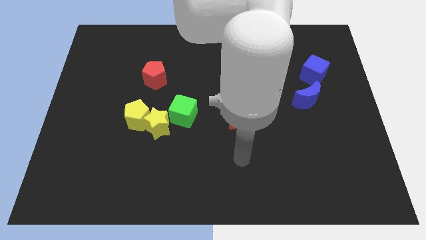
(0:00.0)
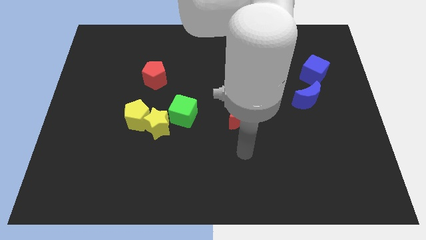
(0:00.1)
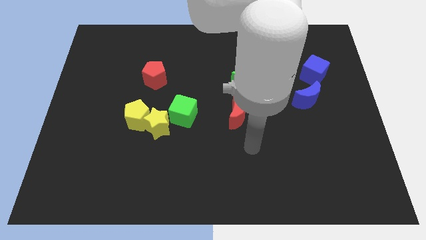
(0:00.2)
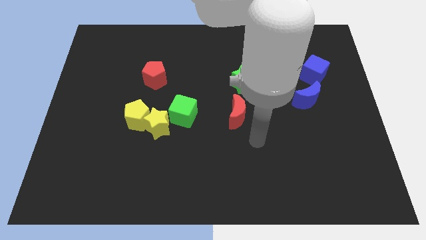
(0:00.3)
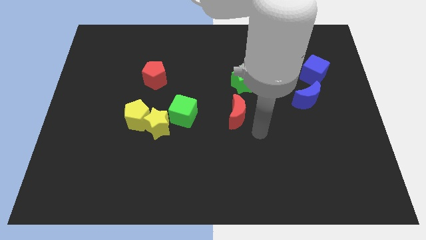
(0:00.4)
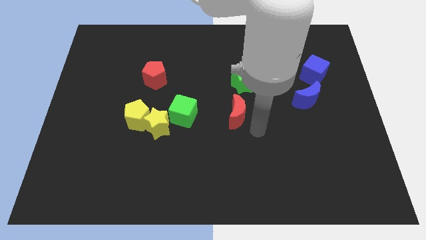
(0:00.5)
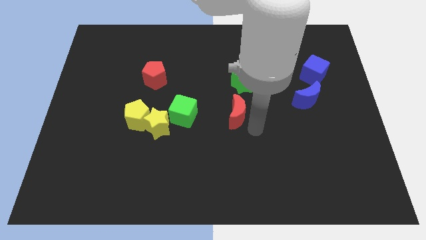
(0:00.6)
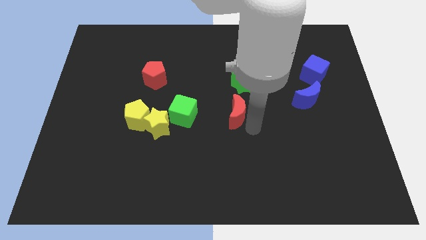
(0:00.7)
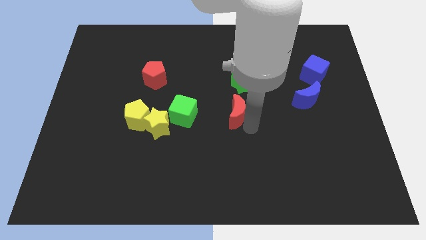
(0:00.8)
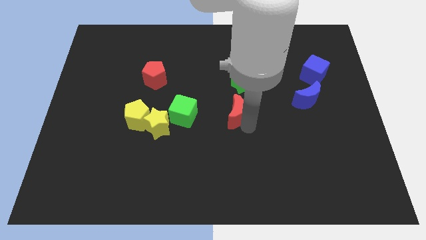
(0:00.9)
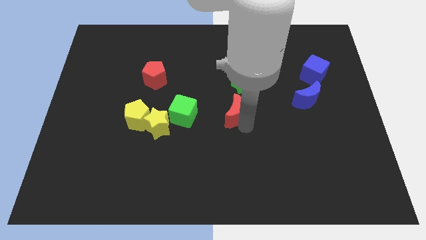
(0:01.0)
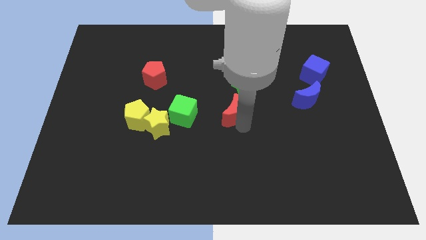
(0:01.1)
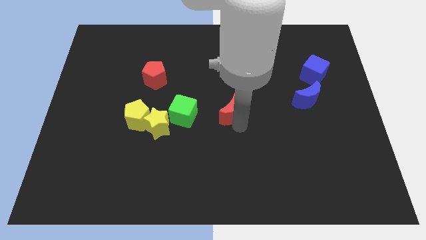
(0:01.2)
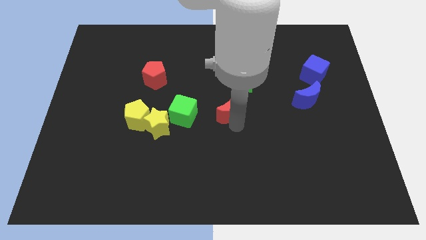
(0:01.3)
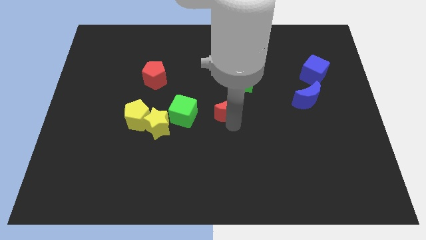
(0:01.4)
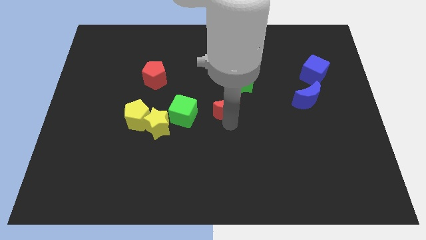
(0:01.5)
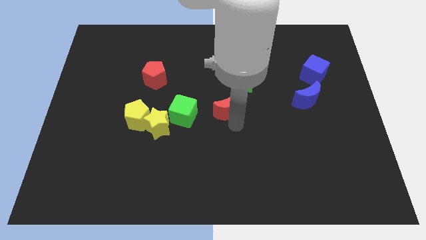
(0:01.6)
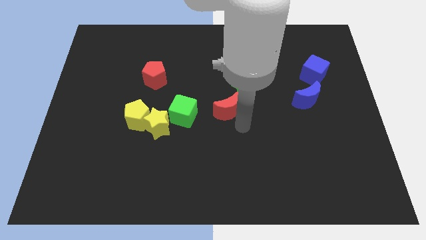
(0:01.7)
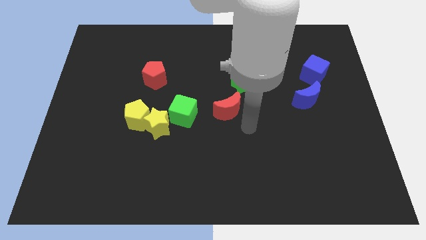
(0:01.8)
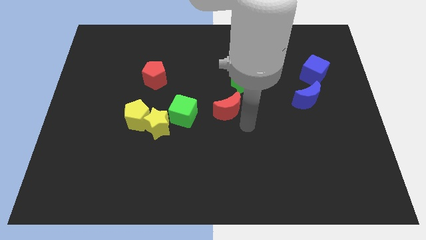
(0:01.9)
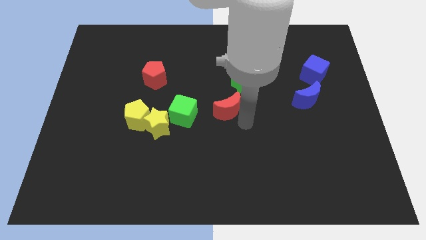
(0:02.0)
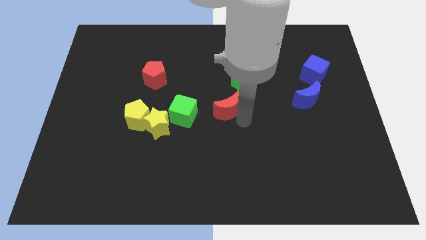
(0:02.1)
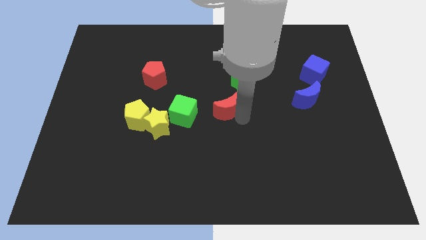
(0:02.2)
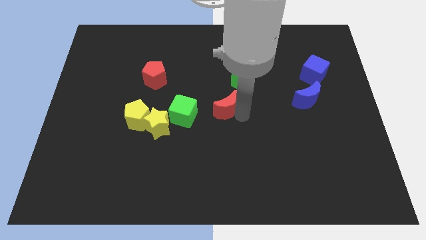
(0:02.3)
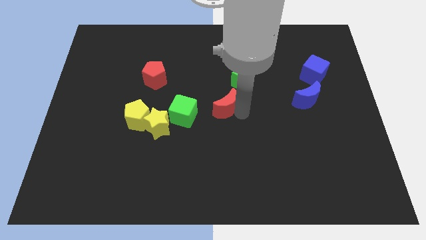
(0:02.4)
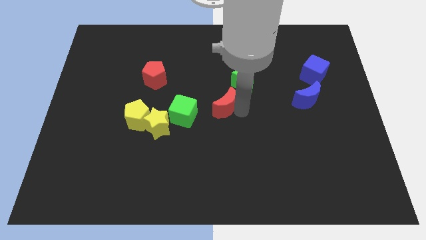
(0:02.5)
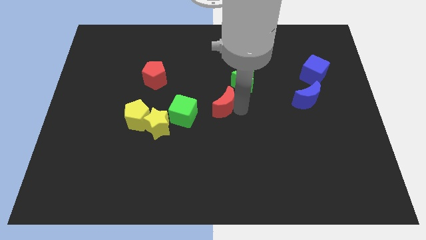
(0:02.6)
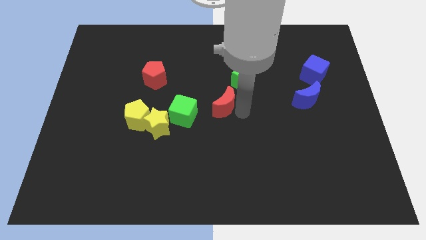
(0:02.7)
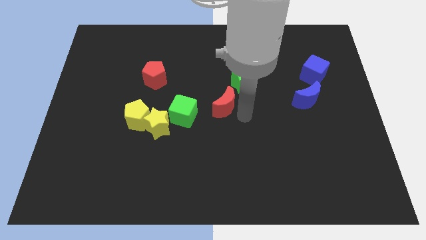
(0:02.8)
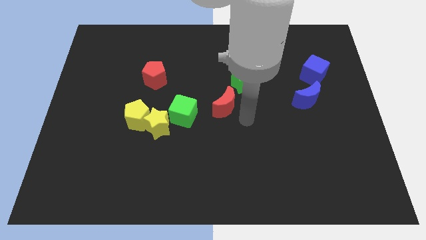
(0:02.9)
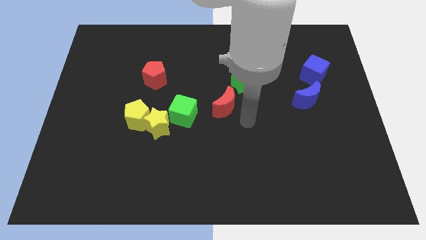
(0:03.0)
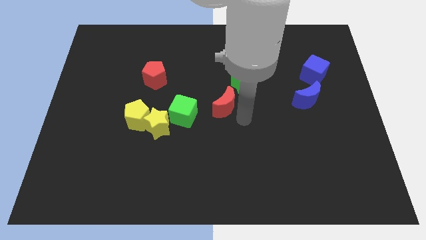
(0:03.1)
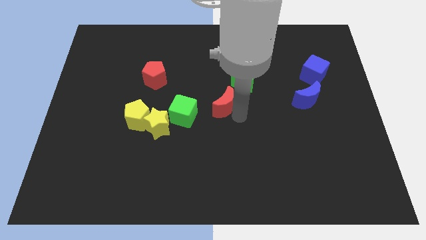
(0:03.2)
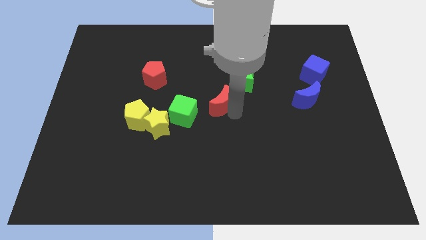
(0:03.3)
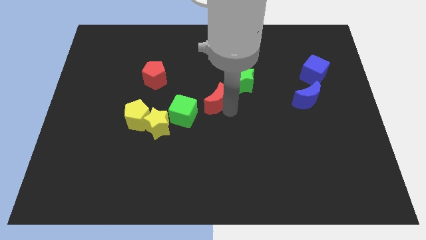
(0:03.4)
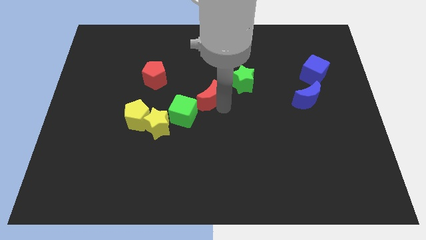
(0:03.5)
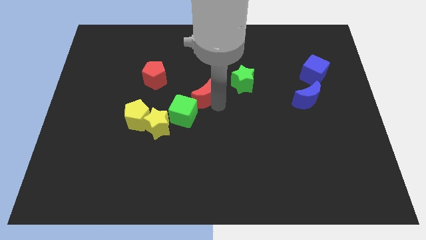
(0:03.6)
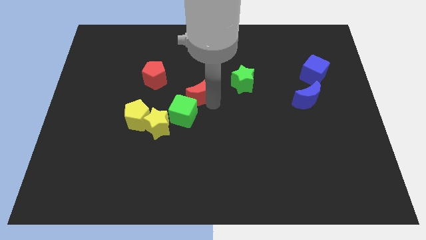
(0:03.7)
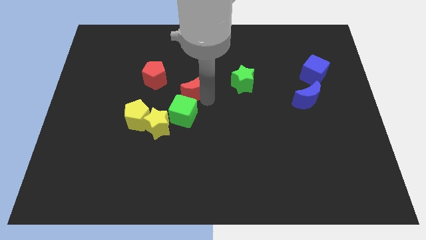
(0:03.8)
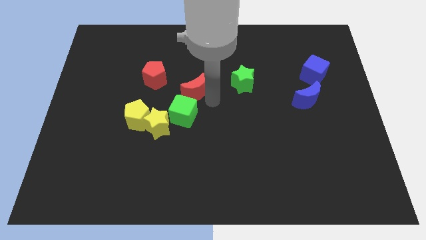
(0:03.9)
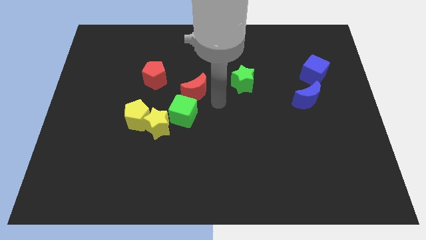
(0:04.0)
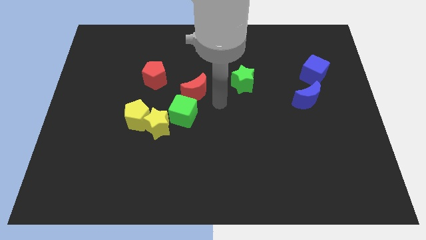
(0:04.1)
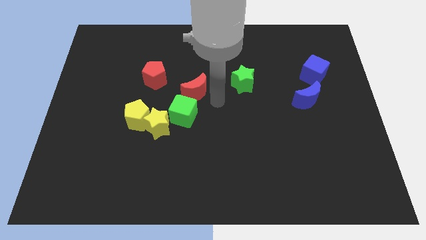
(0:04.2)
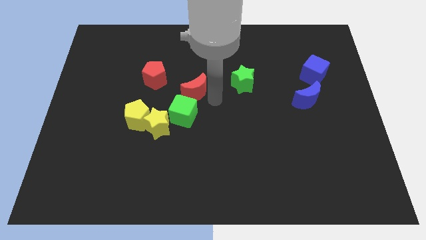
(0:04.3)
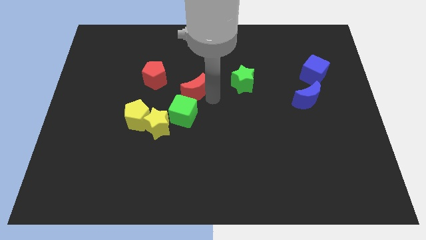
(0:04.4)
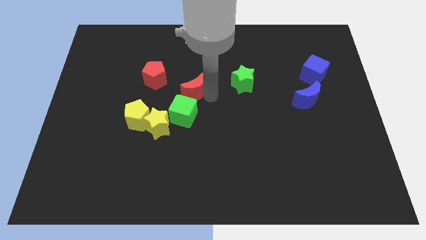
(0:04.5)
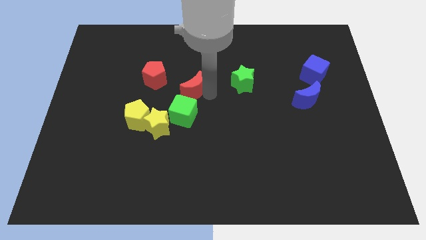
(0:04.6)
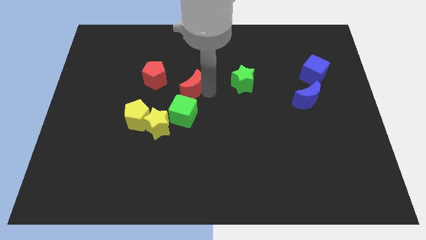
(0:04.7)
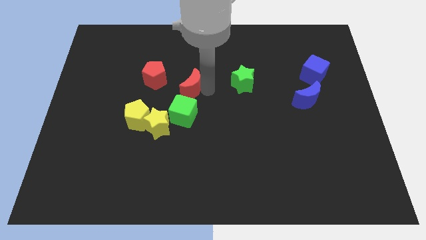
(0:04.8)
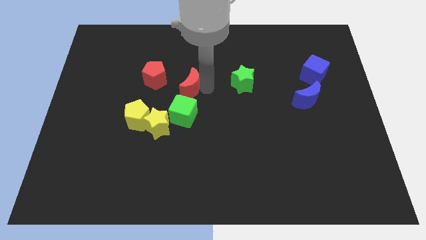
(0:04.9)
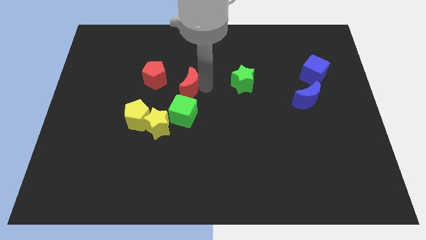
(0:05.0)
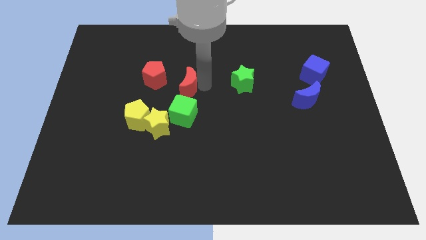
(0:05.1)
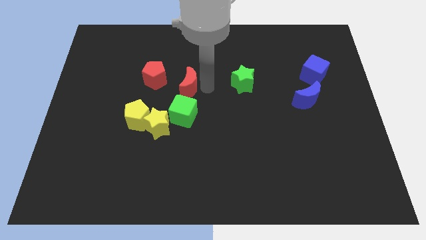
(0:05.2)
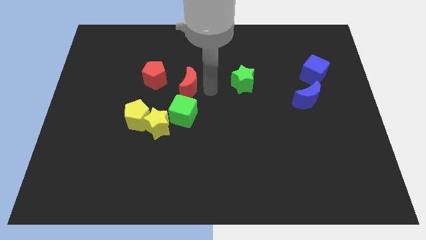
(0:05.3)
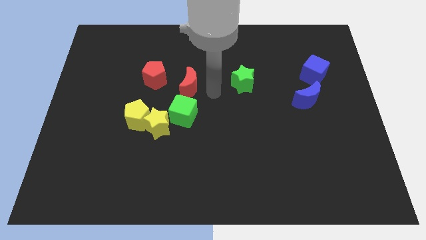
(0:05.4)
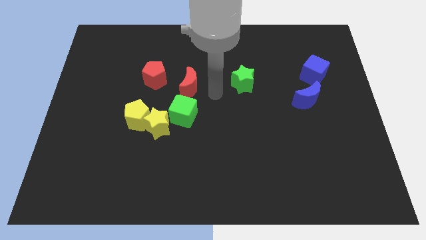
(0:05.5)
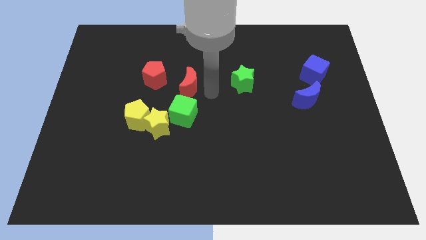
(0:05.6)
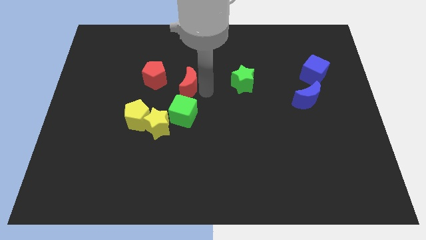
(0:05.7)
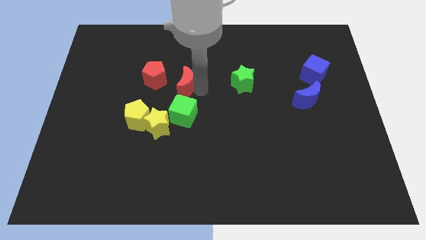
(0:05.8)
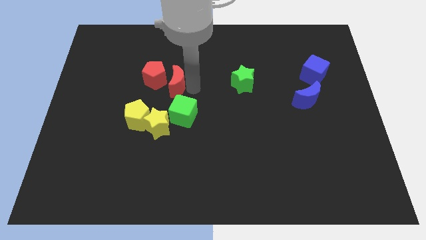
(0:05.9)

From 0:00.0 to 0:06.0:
move the red moon to the red pentagon

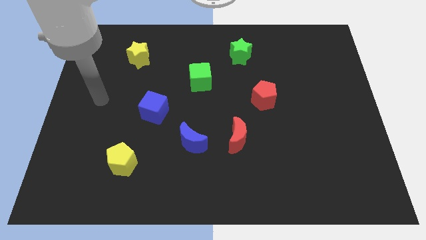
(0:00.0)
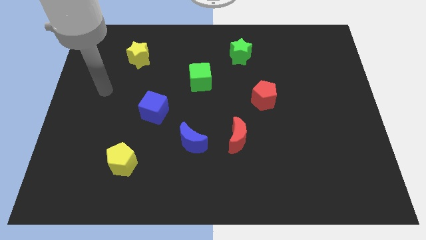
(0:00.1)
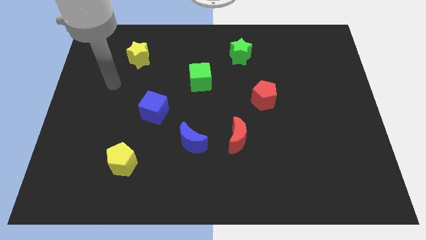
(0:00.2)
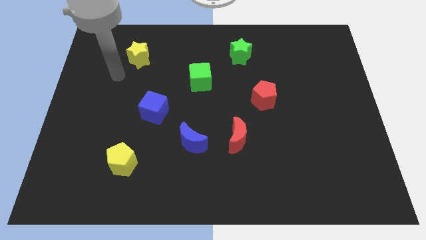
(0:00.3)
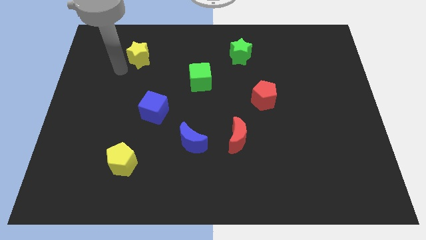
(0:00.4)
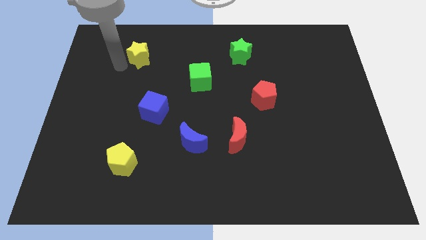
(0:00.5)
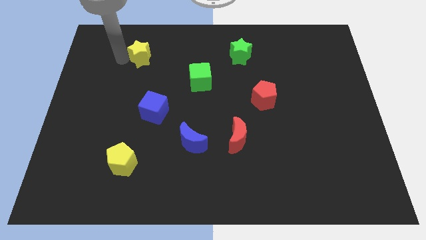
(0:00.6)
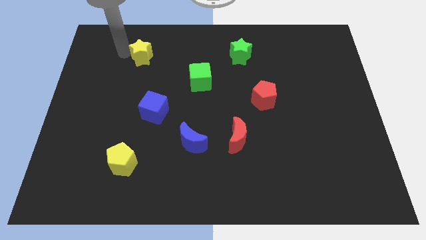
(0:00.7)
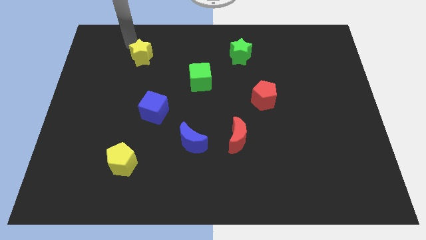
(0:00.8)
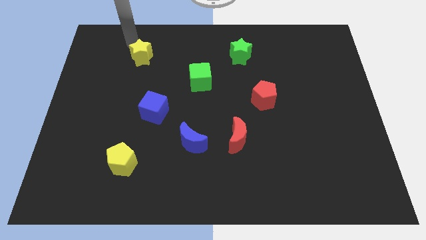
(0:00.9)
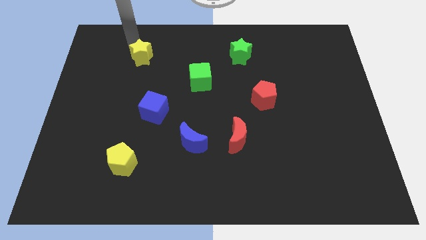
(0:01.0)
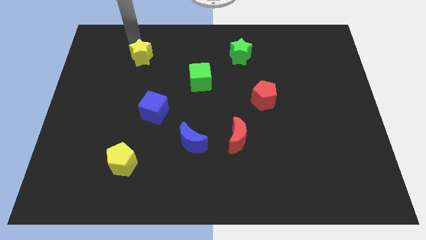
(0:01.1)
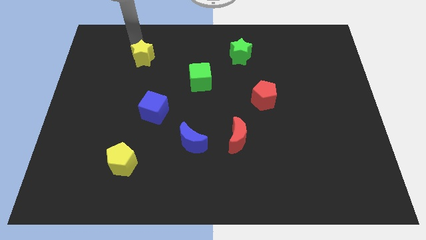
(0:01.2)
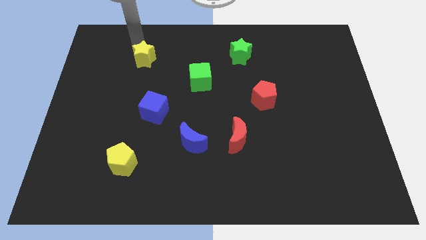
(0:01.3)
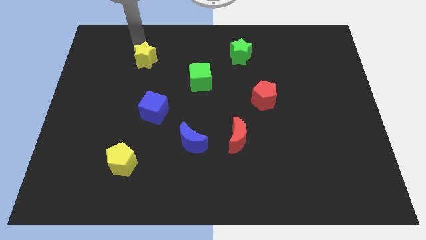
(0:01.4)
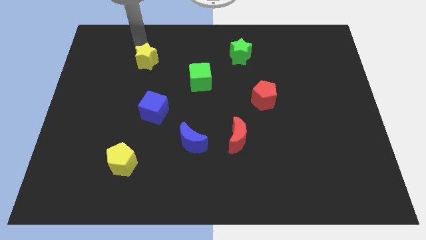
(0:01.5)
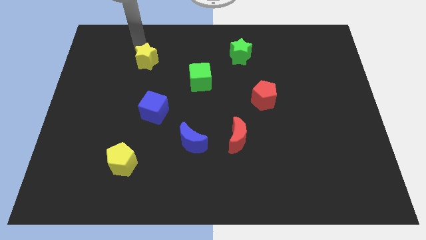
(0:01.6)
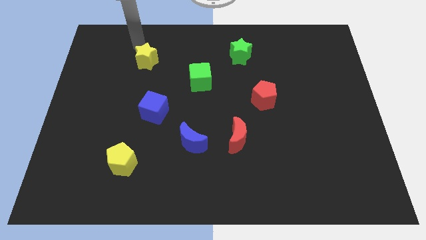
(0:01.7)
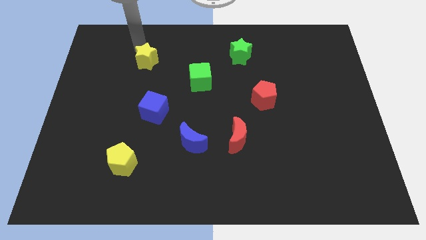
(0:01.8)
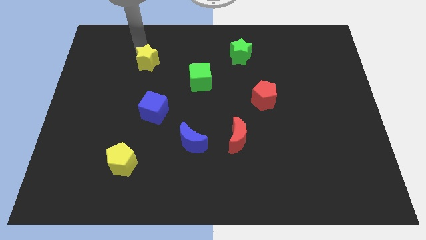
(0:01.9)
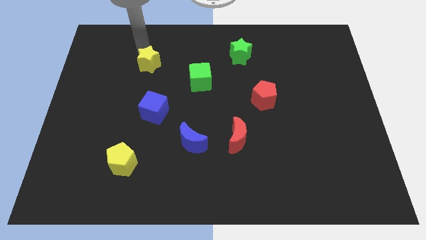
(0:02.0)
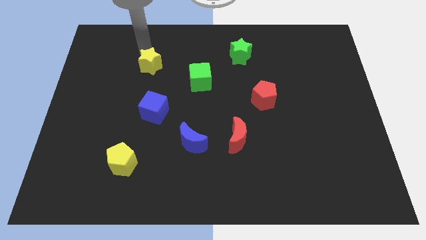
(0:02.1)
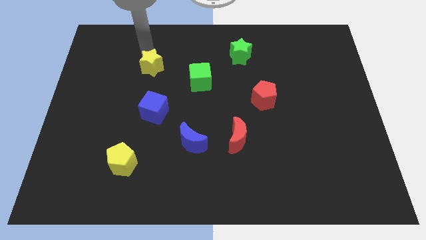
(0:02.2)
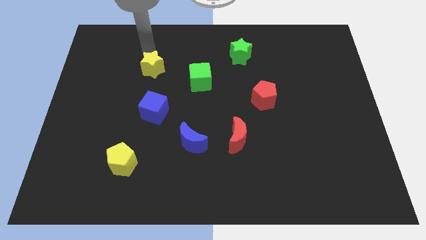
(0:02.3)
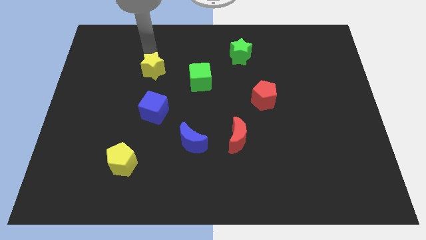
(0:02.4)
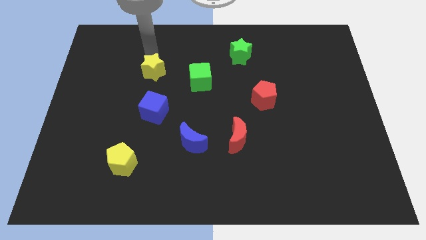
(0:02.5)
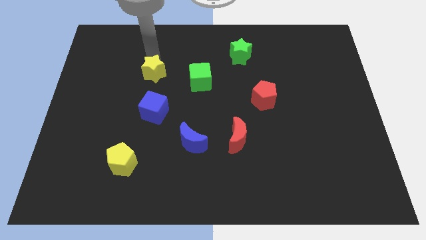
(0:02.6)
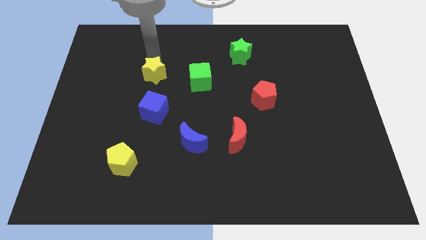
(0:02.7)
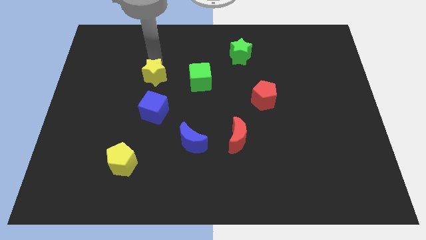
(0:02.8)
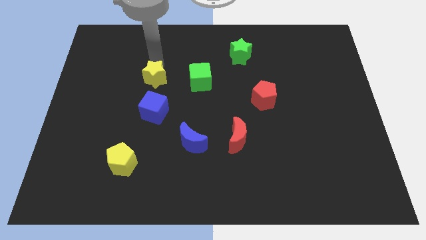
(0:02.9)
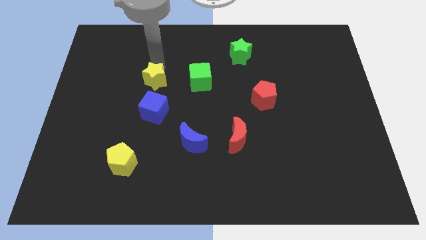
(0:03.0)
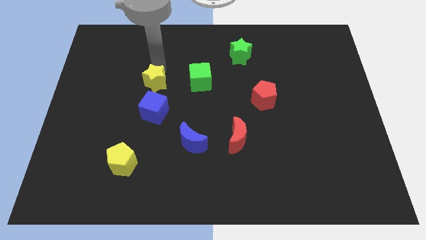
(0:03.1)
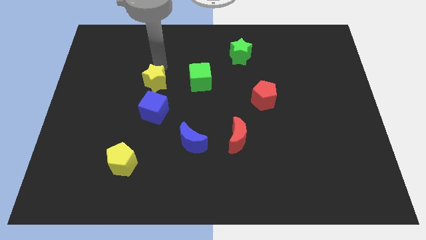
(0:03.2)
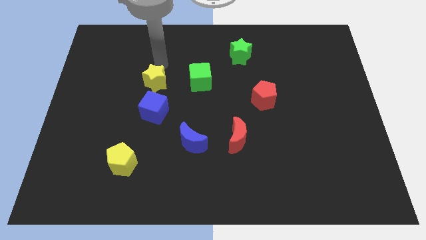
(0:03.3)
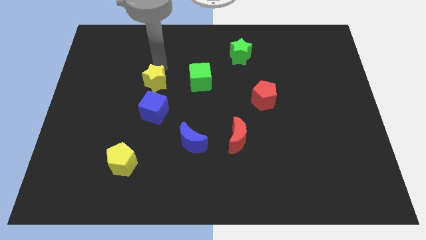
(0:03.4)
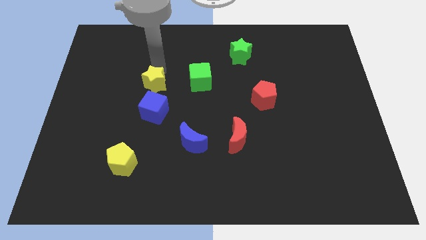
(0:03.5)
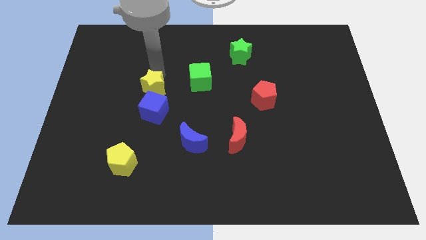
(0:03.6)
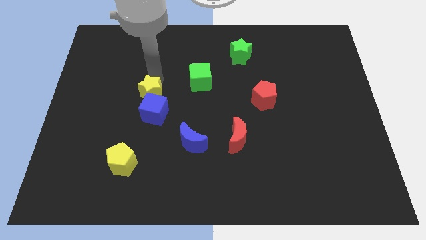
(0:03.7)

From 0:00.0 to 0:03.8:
slide the yellow star towards the blue cube
